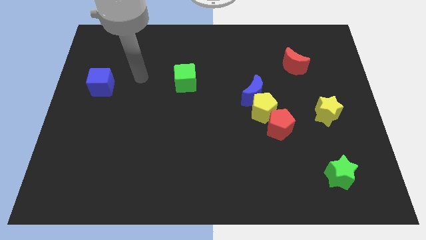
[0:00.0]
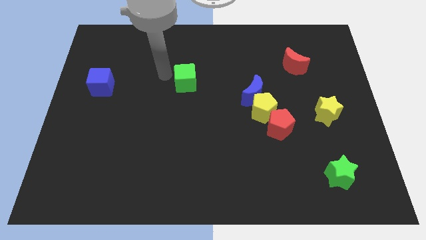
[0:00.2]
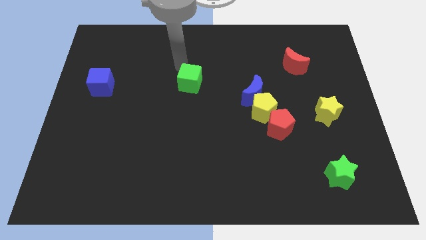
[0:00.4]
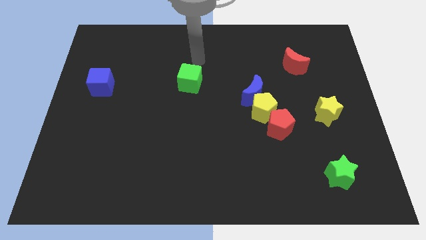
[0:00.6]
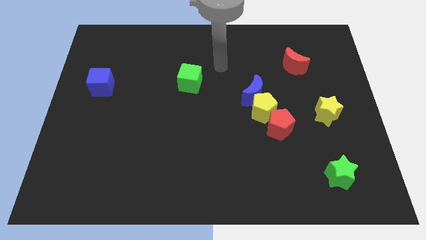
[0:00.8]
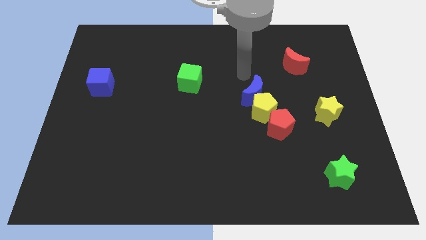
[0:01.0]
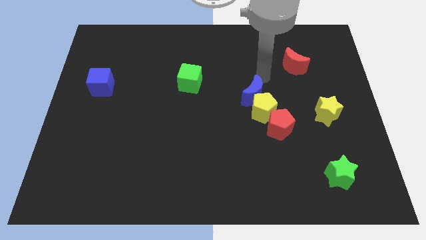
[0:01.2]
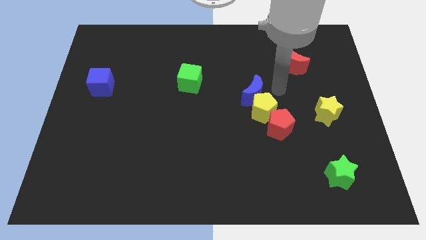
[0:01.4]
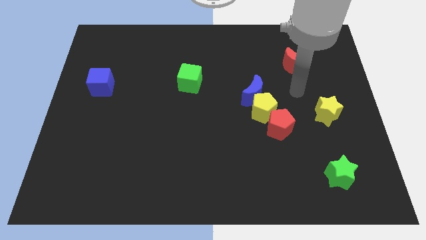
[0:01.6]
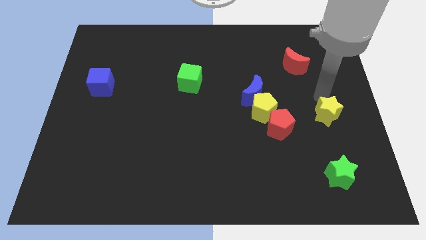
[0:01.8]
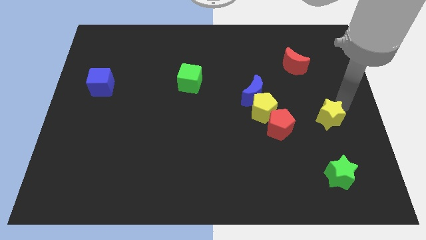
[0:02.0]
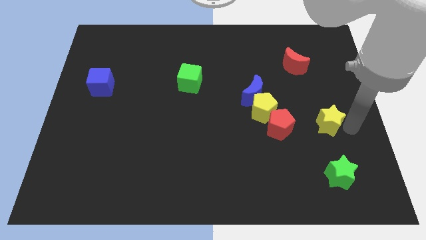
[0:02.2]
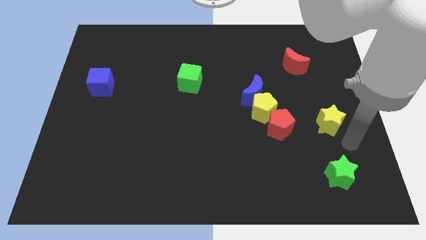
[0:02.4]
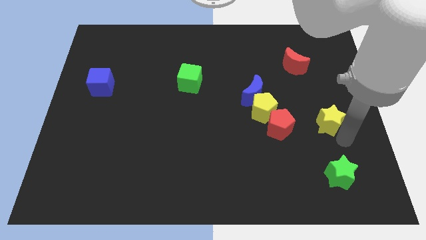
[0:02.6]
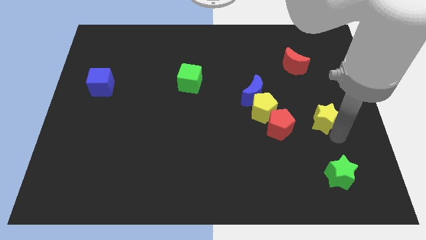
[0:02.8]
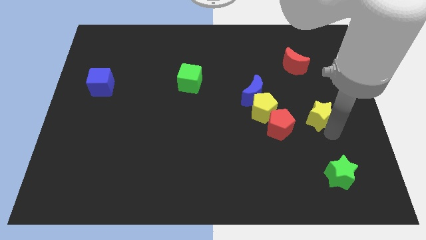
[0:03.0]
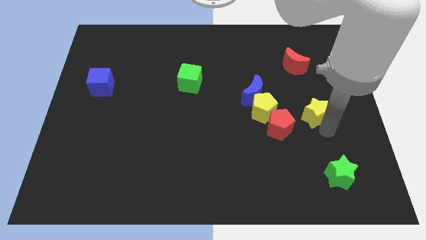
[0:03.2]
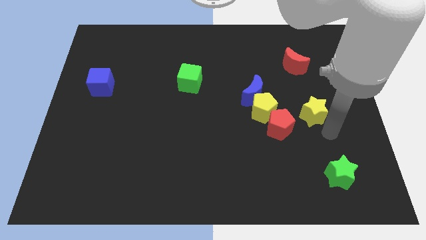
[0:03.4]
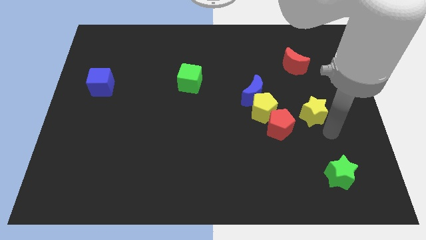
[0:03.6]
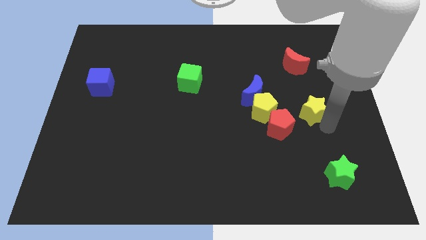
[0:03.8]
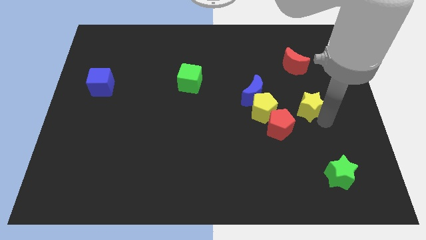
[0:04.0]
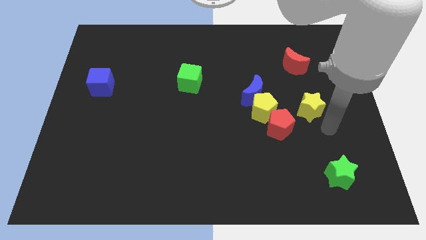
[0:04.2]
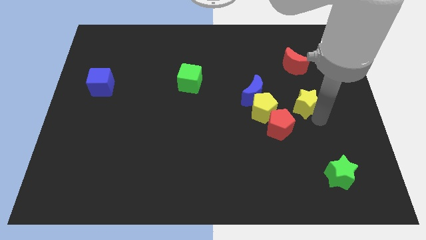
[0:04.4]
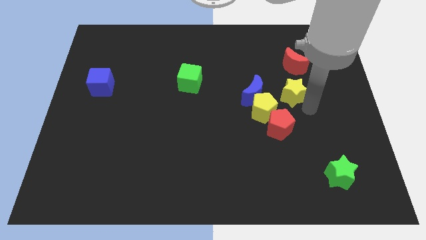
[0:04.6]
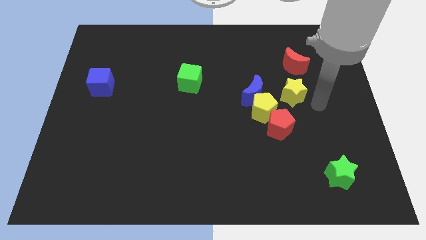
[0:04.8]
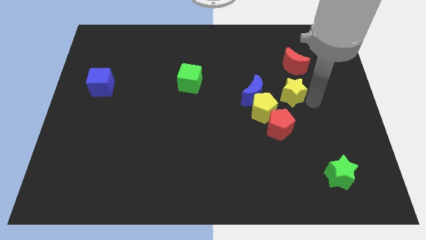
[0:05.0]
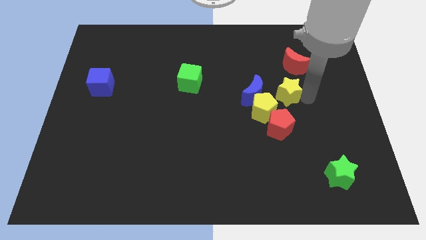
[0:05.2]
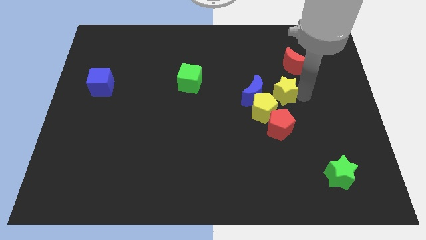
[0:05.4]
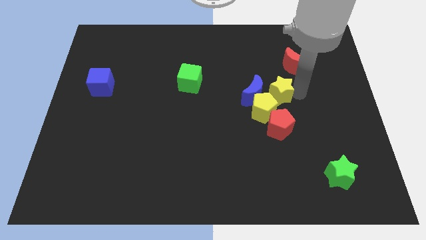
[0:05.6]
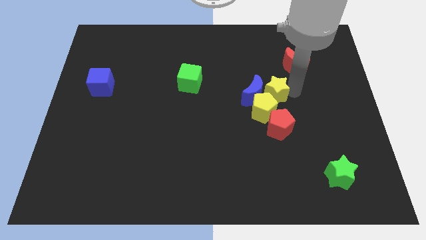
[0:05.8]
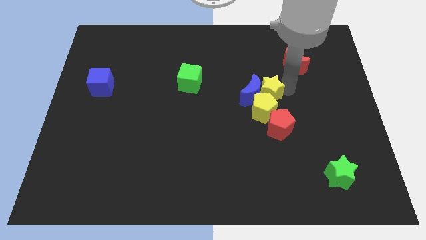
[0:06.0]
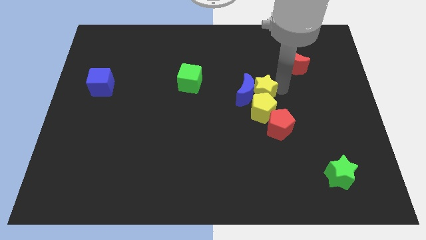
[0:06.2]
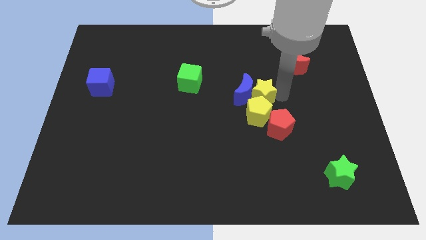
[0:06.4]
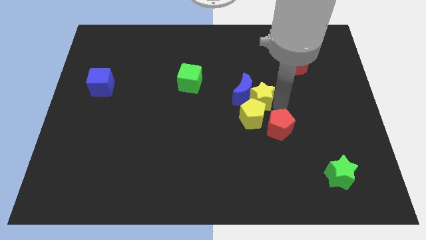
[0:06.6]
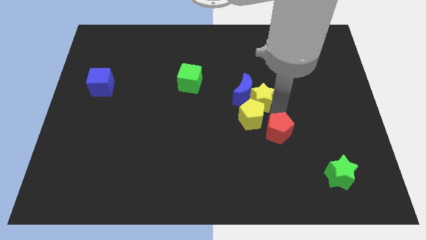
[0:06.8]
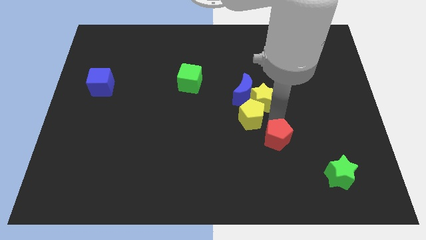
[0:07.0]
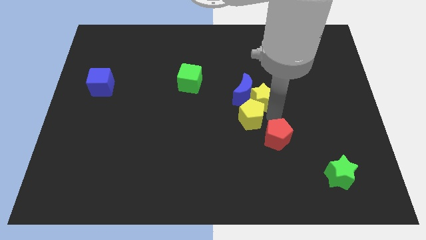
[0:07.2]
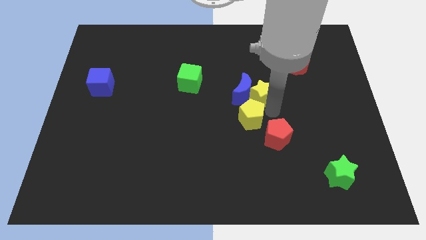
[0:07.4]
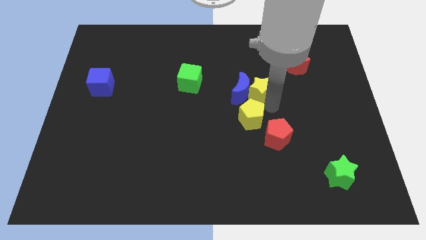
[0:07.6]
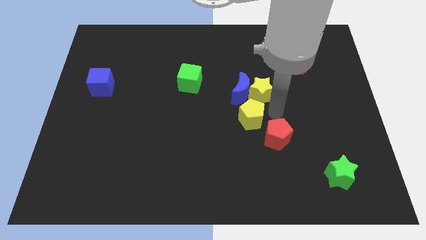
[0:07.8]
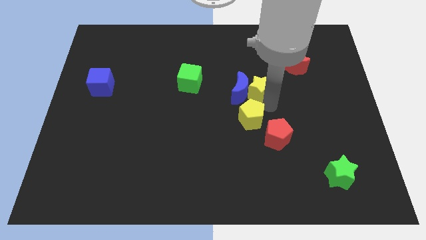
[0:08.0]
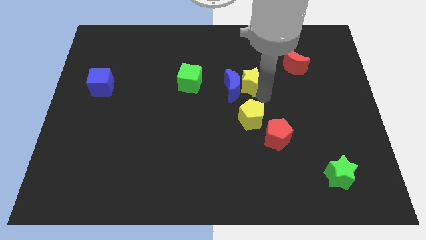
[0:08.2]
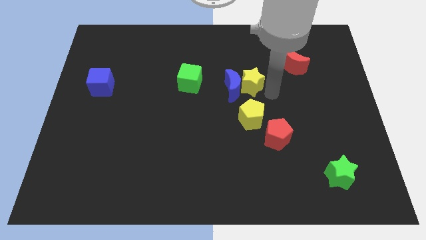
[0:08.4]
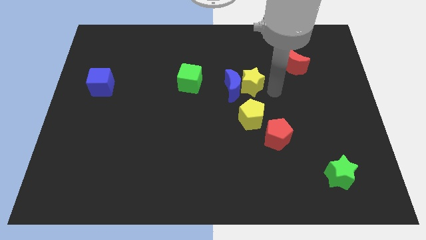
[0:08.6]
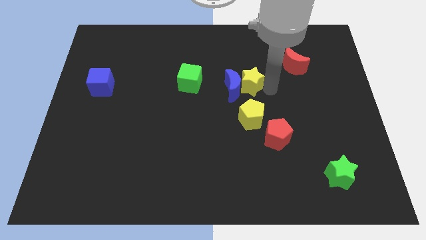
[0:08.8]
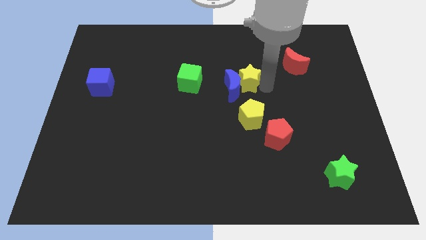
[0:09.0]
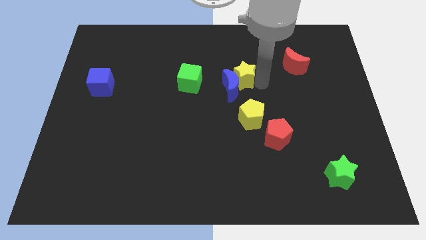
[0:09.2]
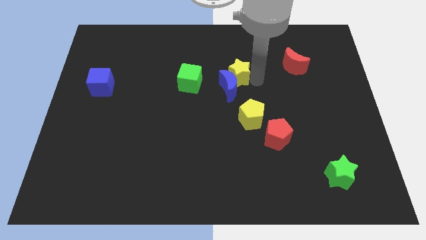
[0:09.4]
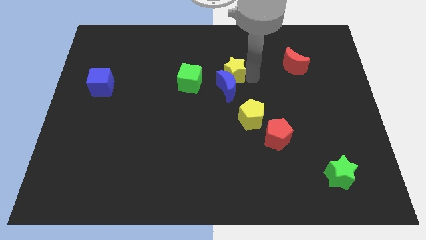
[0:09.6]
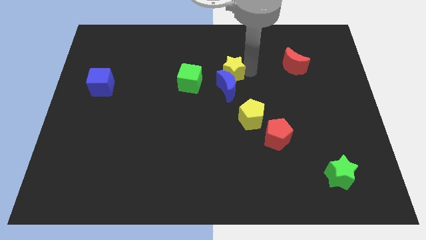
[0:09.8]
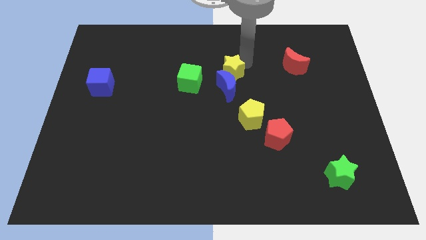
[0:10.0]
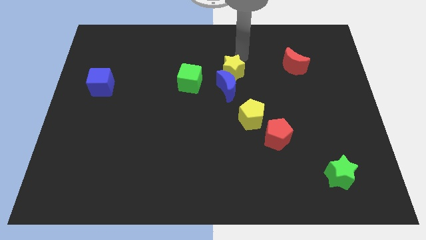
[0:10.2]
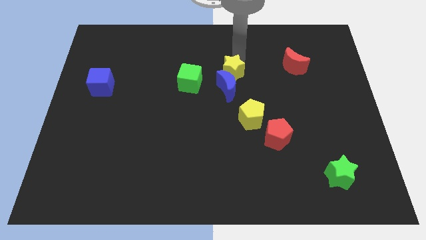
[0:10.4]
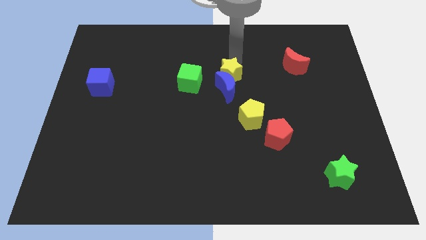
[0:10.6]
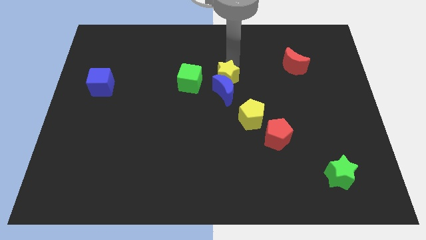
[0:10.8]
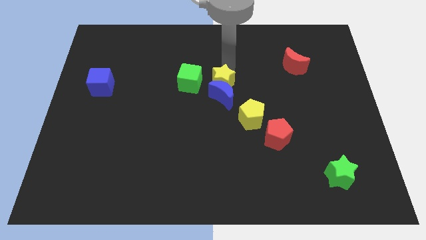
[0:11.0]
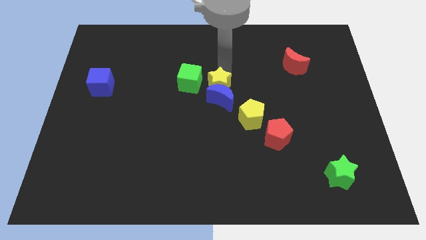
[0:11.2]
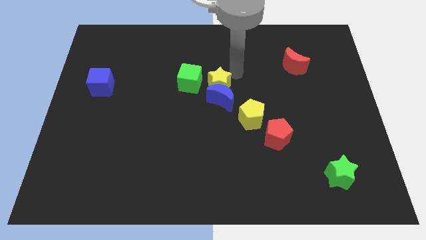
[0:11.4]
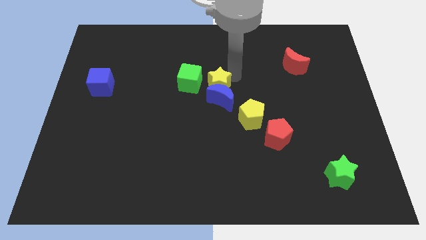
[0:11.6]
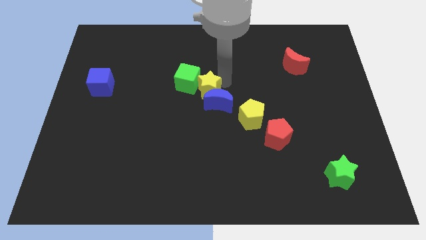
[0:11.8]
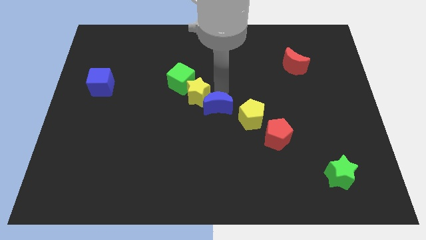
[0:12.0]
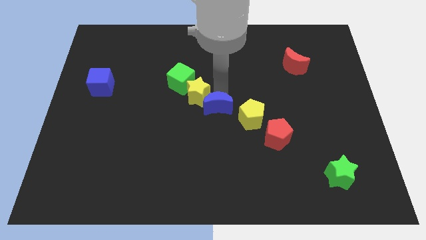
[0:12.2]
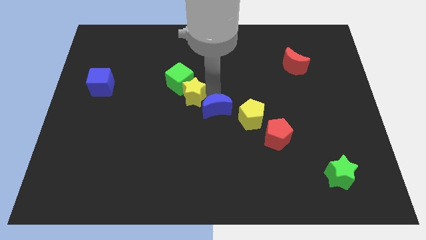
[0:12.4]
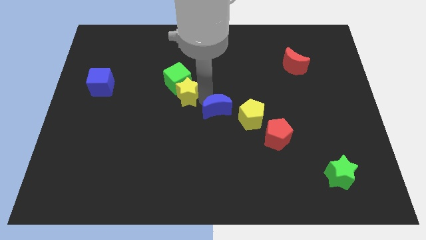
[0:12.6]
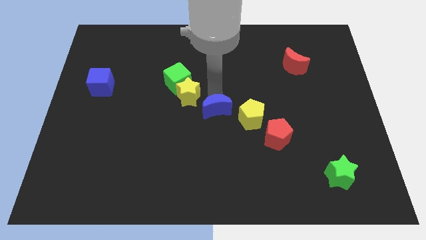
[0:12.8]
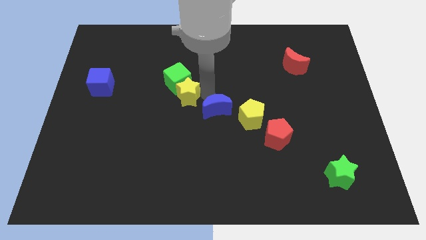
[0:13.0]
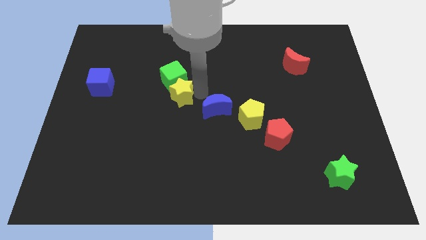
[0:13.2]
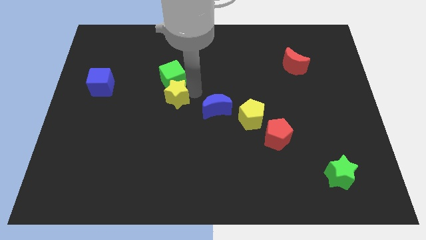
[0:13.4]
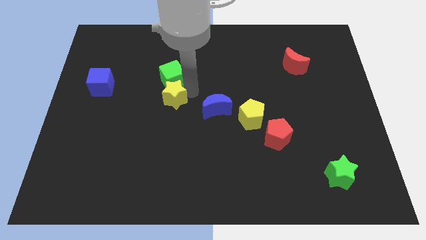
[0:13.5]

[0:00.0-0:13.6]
push the yellow star diagonally down and to the left of the green cube
